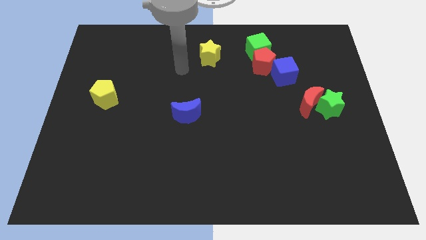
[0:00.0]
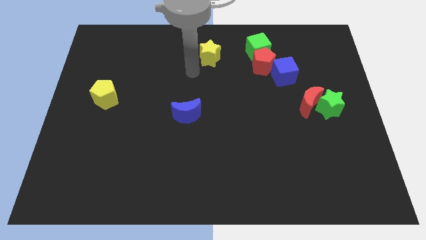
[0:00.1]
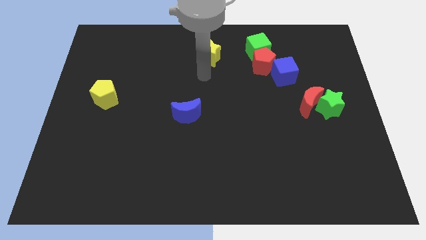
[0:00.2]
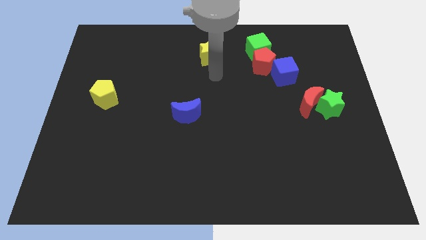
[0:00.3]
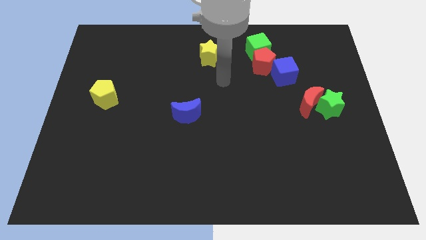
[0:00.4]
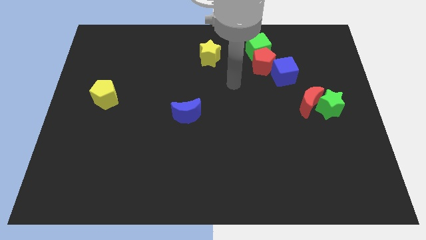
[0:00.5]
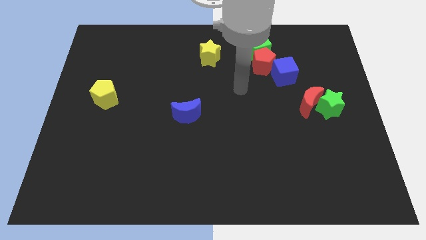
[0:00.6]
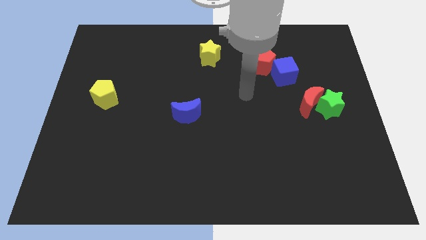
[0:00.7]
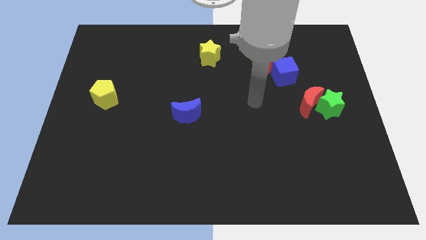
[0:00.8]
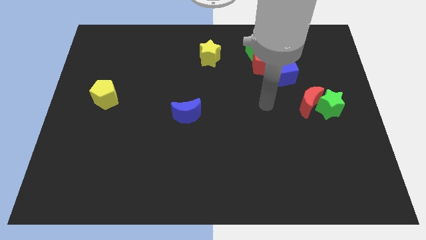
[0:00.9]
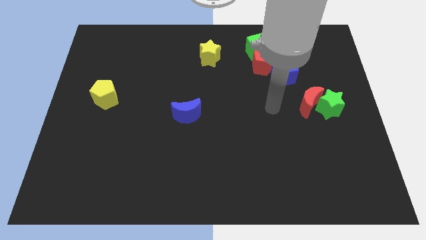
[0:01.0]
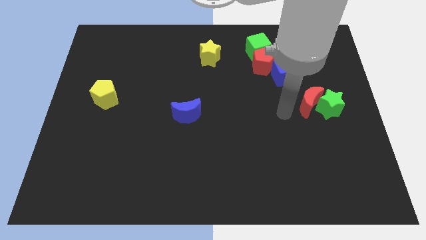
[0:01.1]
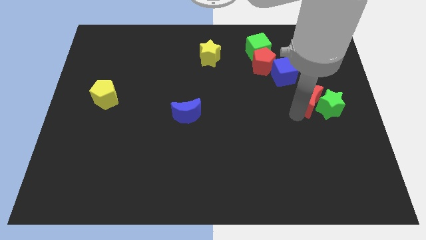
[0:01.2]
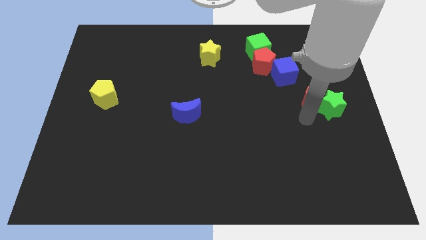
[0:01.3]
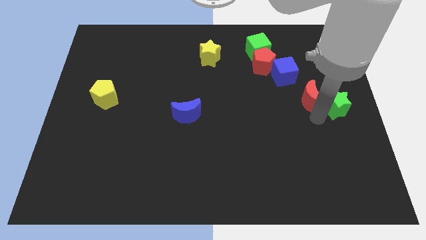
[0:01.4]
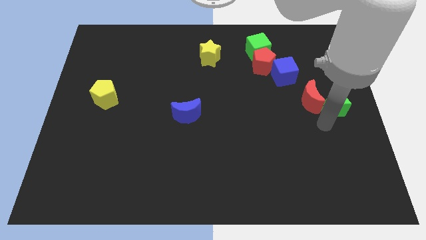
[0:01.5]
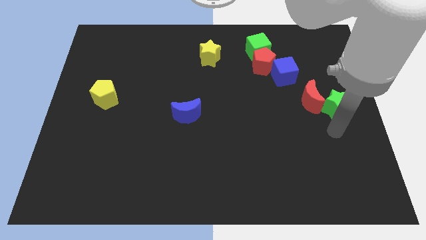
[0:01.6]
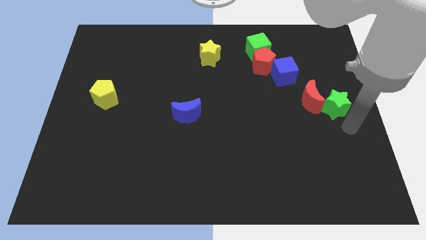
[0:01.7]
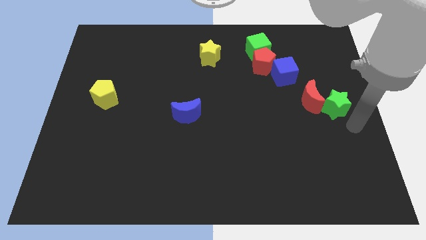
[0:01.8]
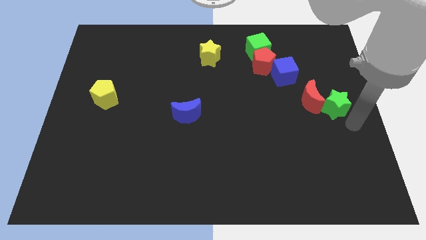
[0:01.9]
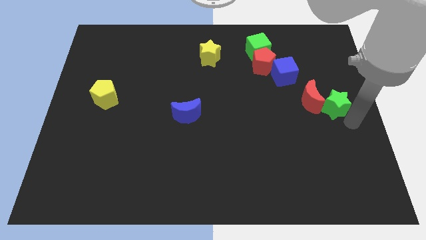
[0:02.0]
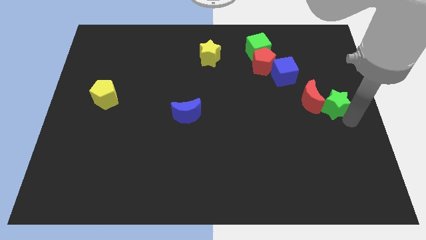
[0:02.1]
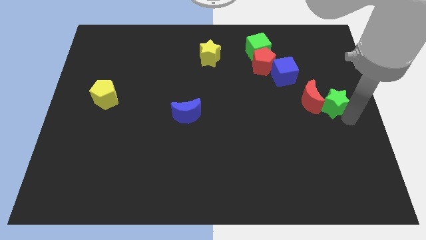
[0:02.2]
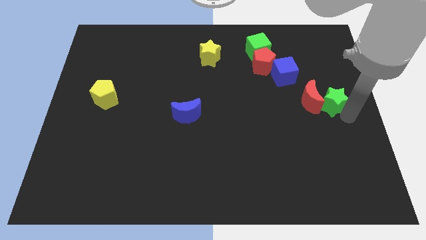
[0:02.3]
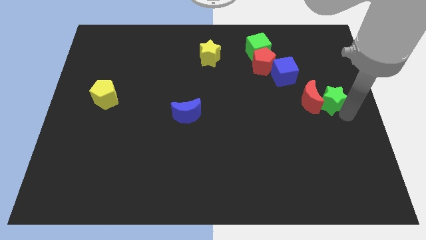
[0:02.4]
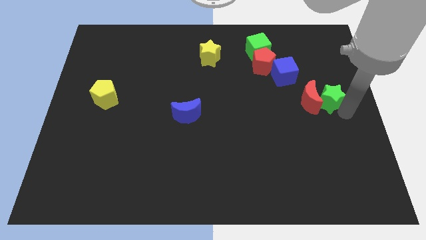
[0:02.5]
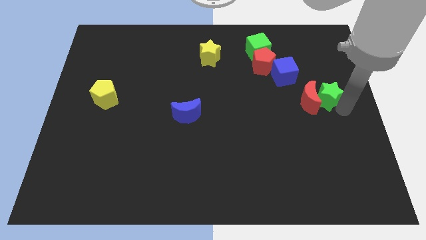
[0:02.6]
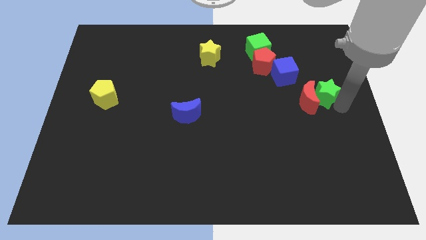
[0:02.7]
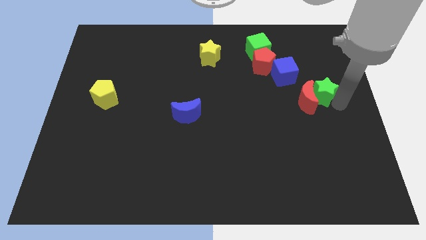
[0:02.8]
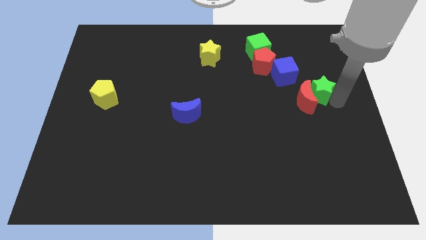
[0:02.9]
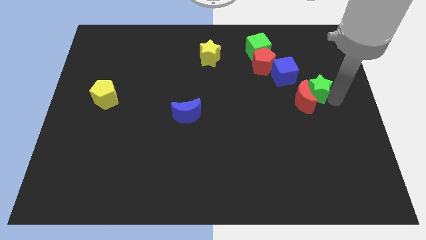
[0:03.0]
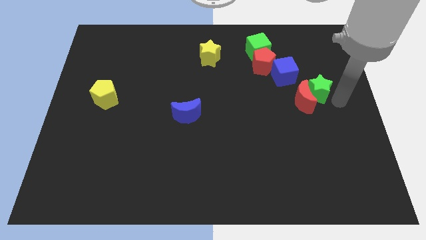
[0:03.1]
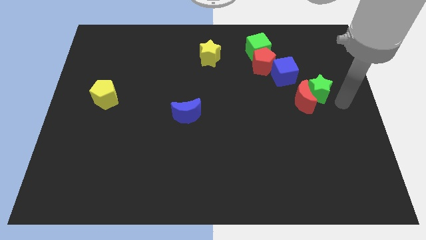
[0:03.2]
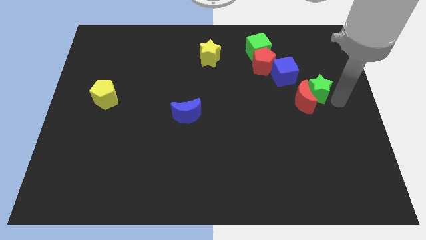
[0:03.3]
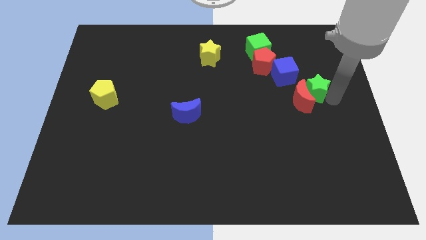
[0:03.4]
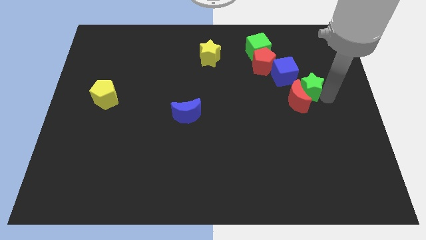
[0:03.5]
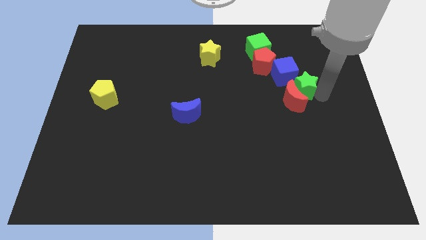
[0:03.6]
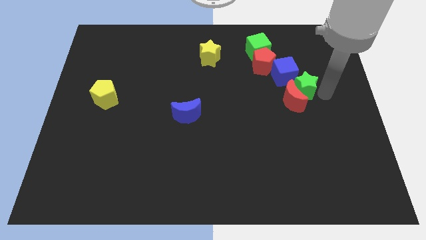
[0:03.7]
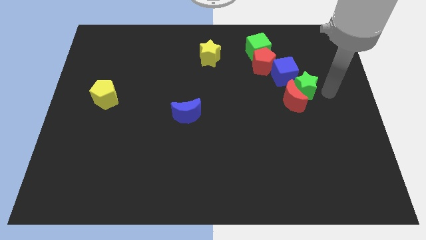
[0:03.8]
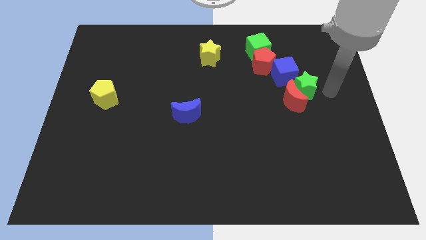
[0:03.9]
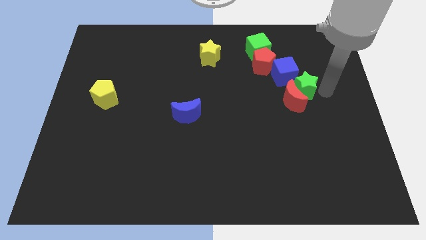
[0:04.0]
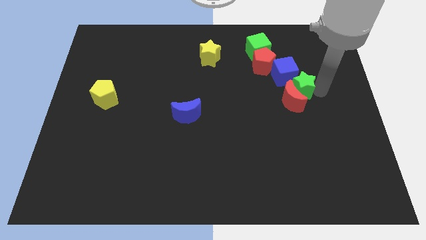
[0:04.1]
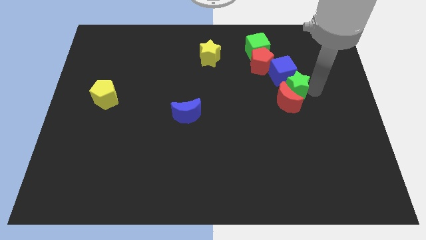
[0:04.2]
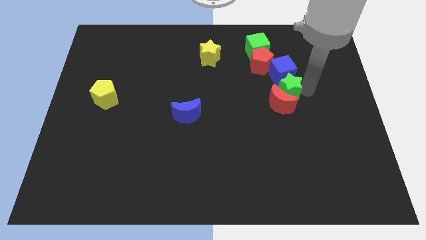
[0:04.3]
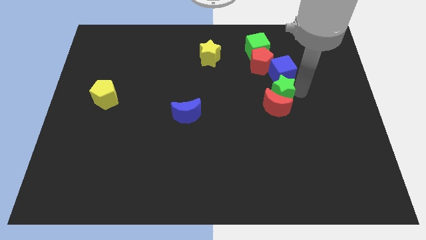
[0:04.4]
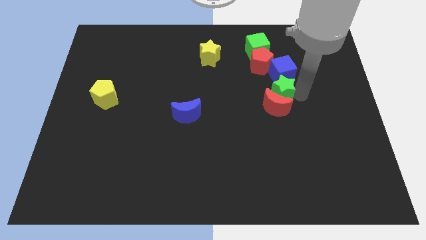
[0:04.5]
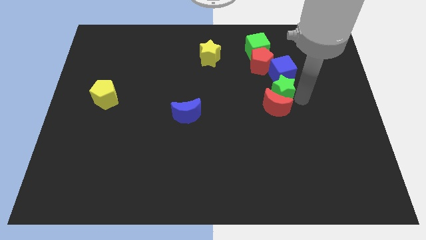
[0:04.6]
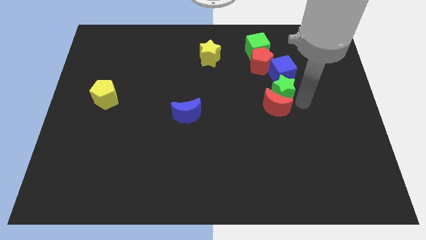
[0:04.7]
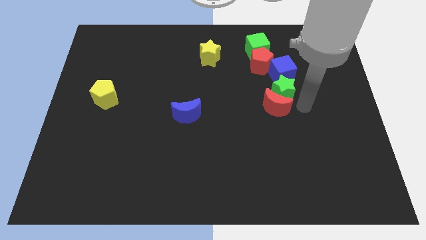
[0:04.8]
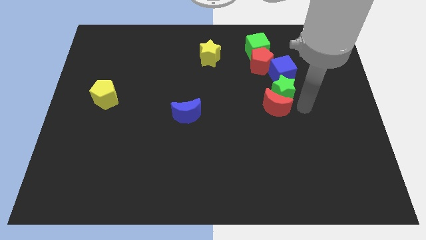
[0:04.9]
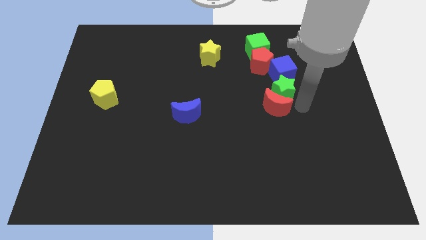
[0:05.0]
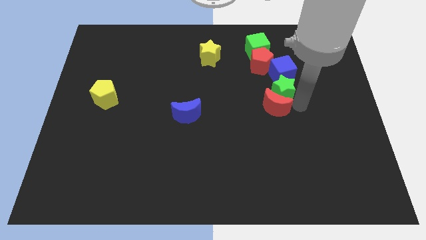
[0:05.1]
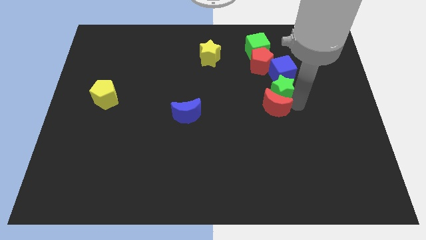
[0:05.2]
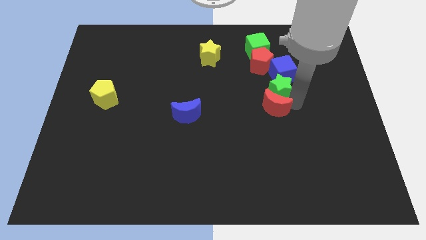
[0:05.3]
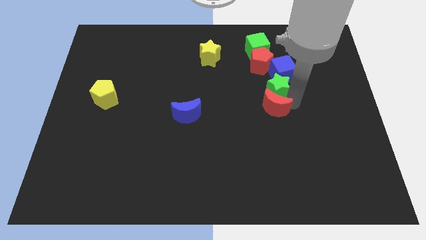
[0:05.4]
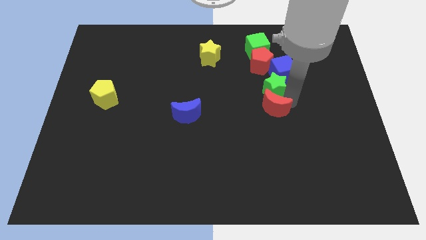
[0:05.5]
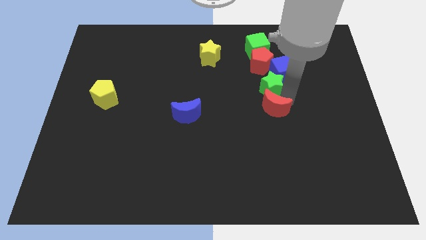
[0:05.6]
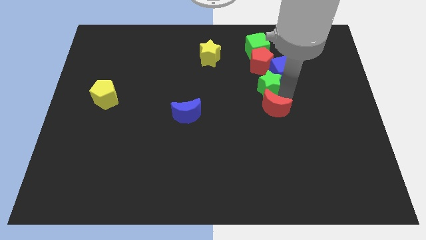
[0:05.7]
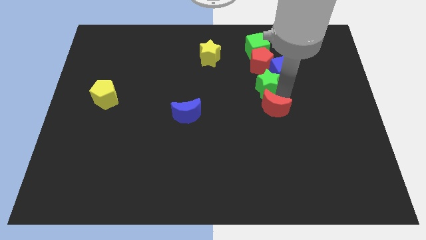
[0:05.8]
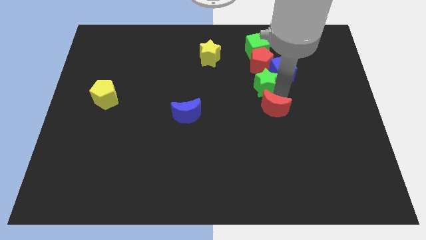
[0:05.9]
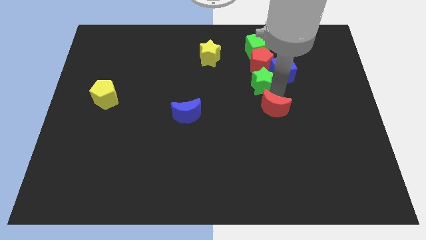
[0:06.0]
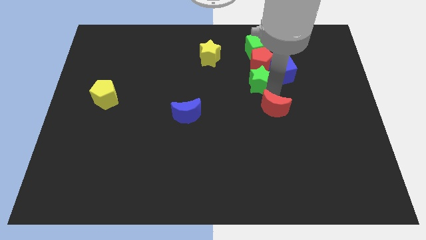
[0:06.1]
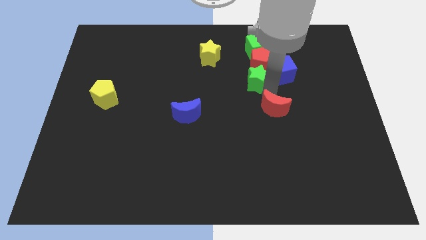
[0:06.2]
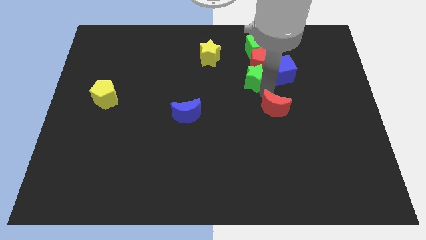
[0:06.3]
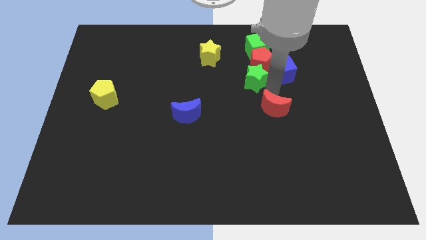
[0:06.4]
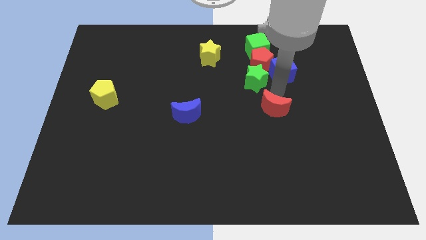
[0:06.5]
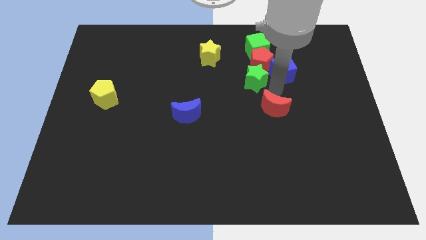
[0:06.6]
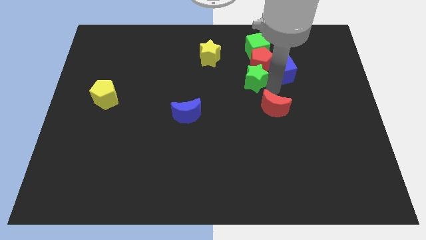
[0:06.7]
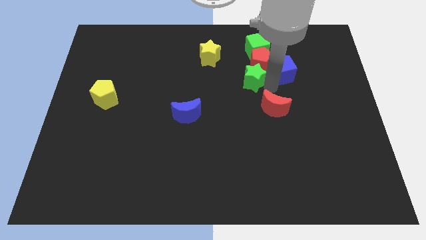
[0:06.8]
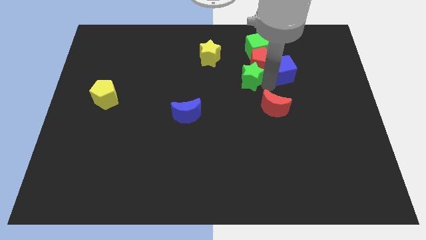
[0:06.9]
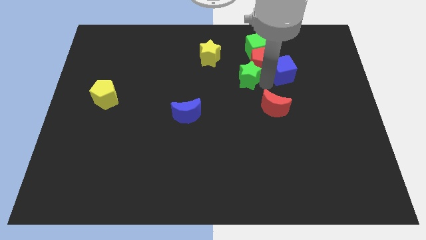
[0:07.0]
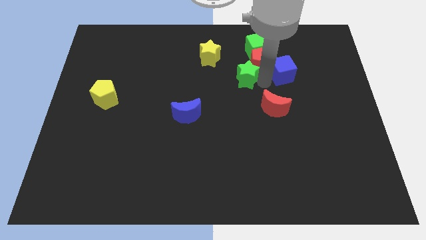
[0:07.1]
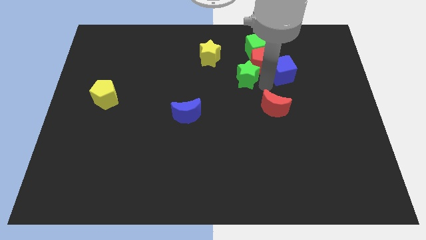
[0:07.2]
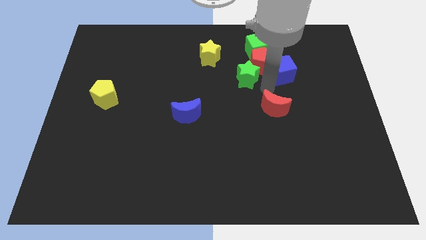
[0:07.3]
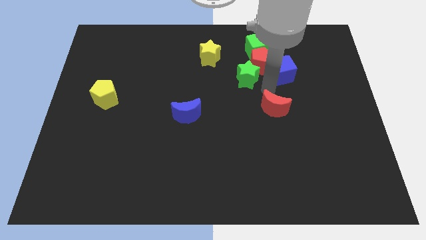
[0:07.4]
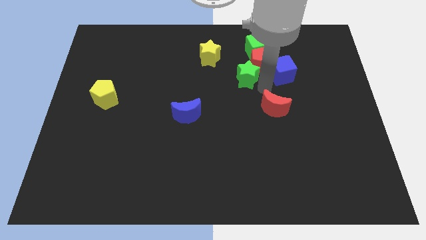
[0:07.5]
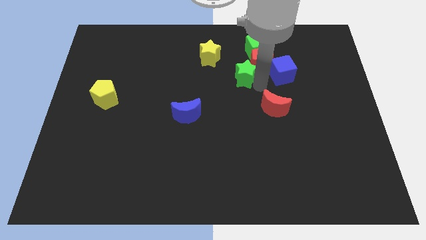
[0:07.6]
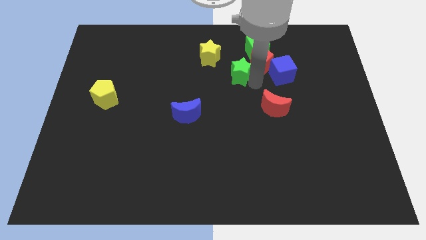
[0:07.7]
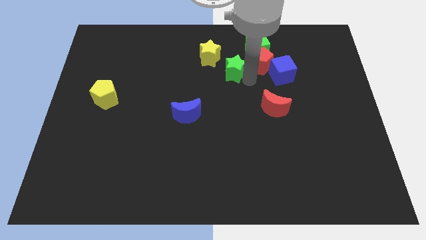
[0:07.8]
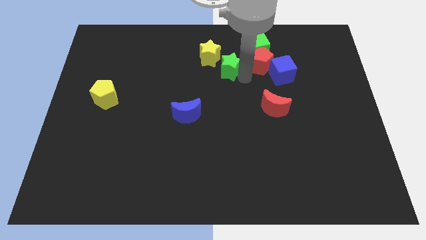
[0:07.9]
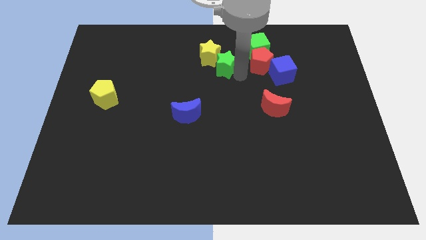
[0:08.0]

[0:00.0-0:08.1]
put the green star to the yellow star
